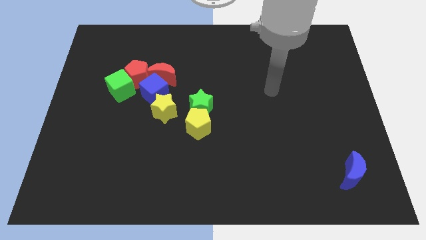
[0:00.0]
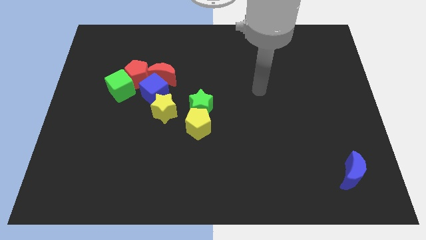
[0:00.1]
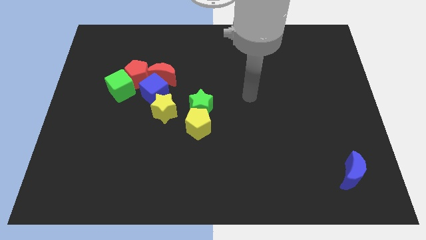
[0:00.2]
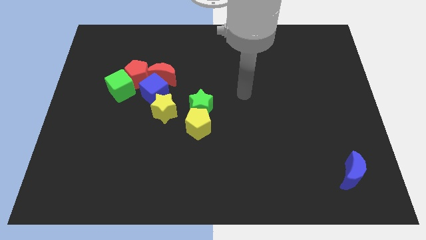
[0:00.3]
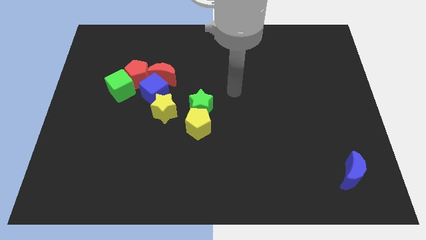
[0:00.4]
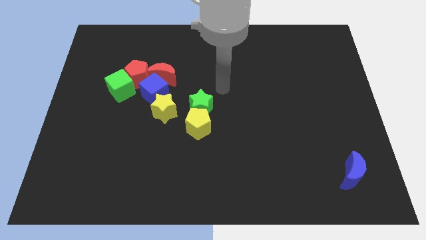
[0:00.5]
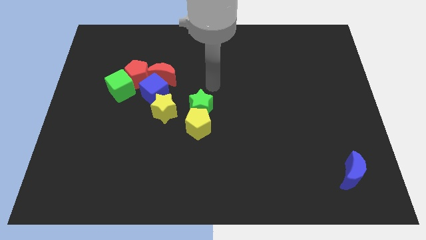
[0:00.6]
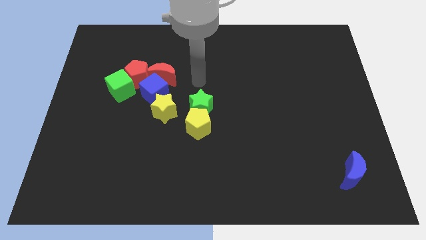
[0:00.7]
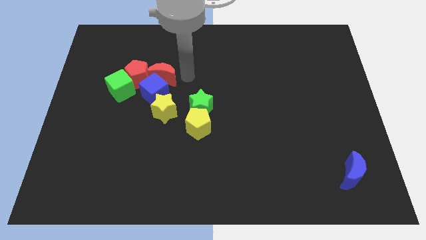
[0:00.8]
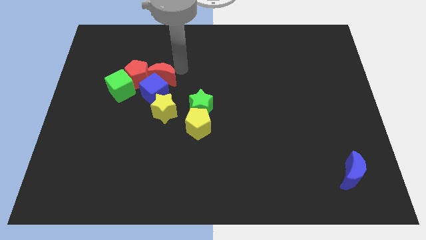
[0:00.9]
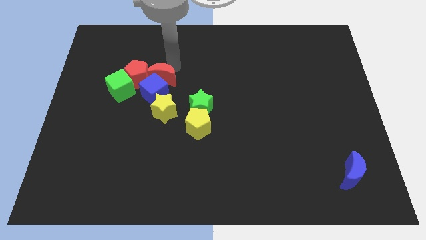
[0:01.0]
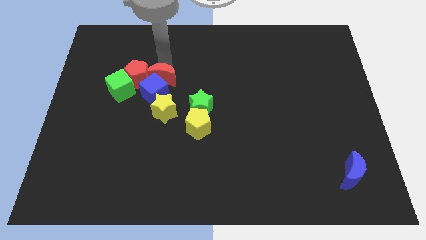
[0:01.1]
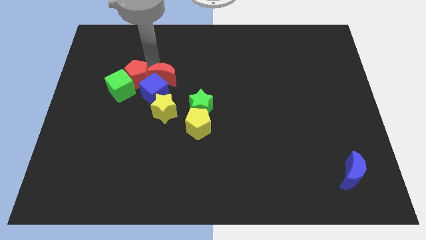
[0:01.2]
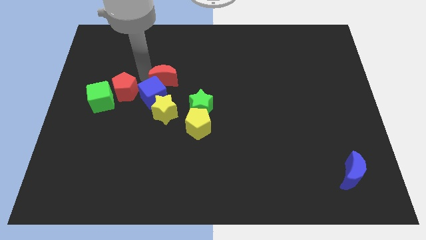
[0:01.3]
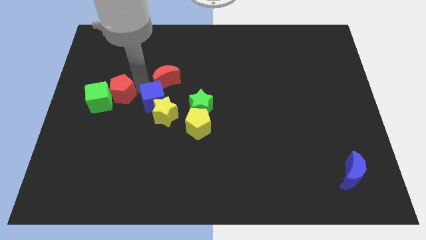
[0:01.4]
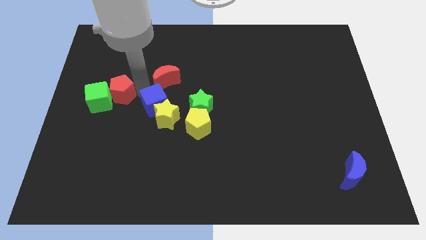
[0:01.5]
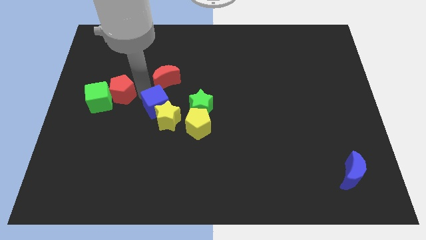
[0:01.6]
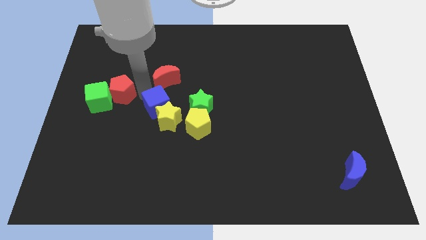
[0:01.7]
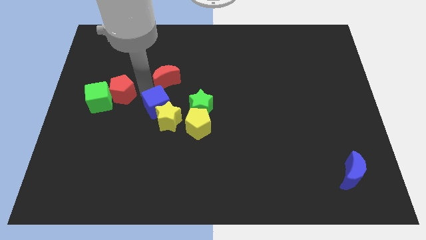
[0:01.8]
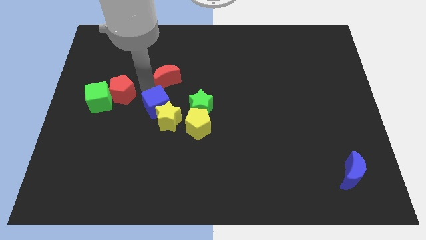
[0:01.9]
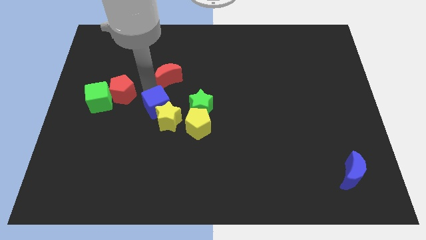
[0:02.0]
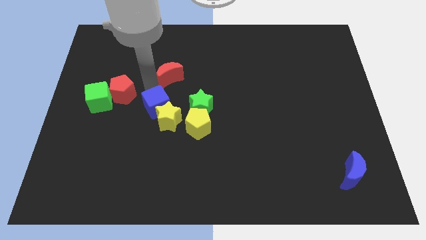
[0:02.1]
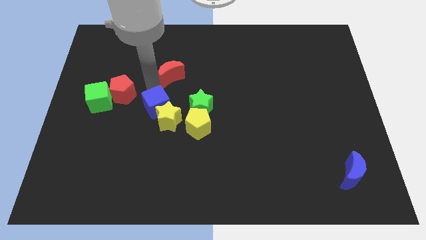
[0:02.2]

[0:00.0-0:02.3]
pull the red moon apart from the blue cube and red pentagon

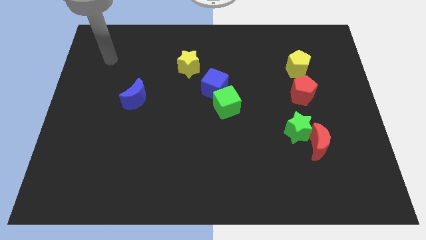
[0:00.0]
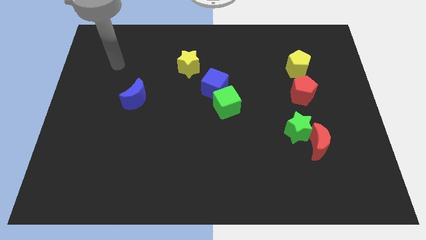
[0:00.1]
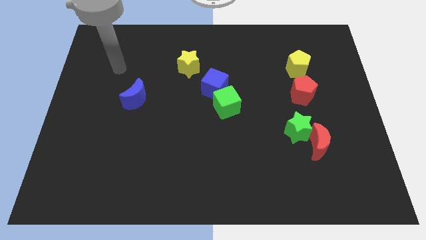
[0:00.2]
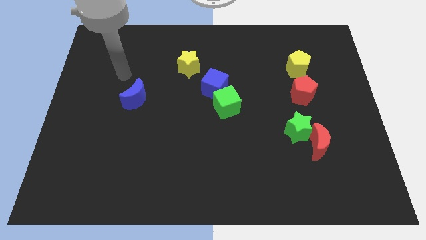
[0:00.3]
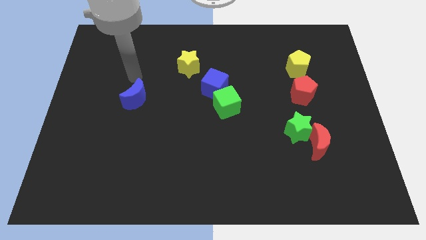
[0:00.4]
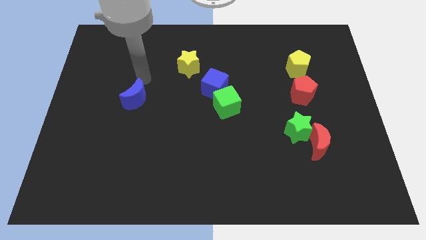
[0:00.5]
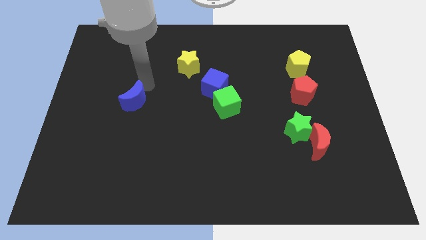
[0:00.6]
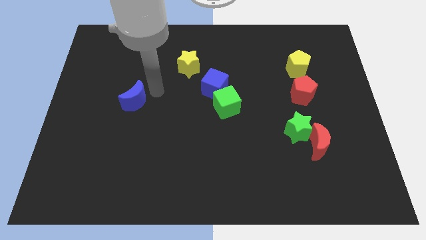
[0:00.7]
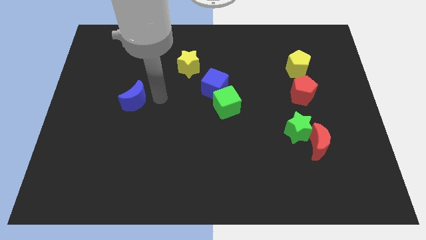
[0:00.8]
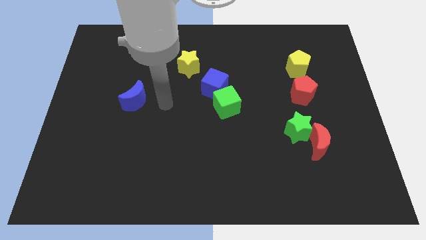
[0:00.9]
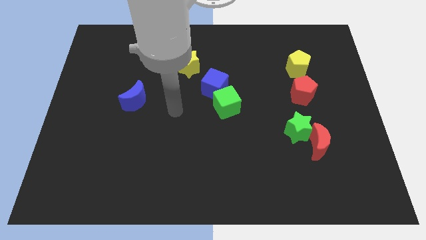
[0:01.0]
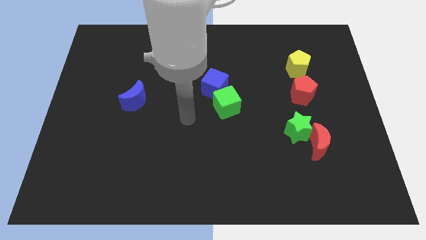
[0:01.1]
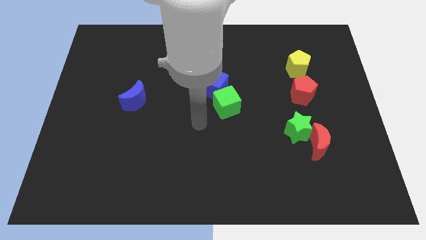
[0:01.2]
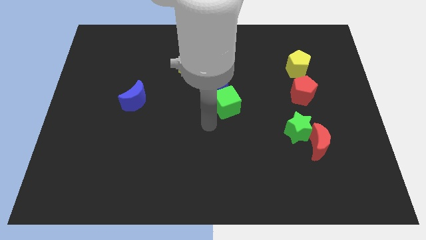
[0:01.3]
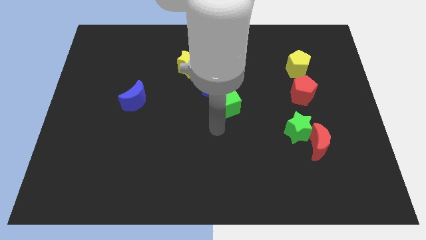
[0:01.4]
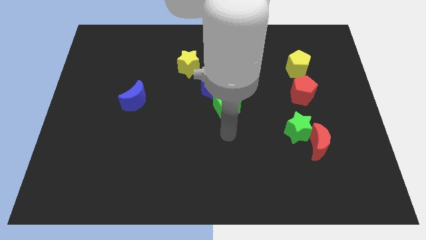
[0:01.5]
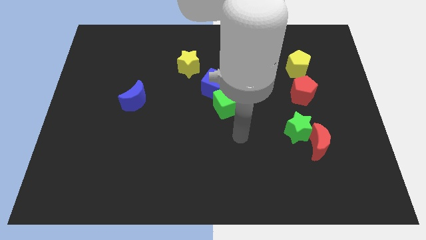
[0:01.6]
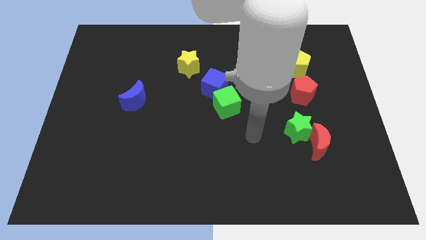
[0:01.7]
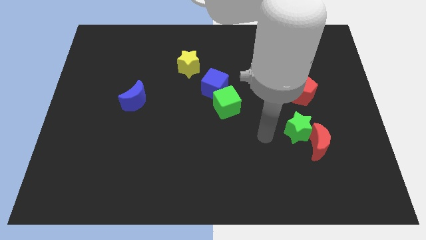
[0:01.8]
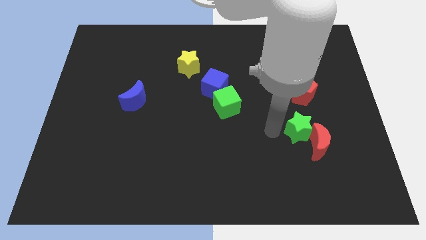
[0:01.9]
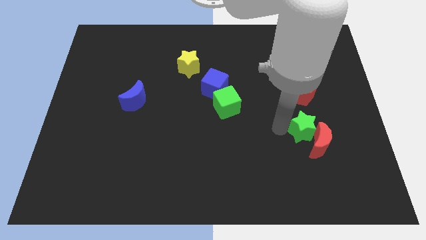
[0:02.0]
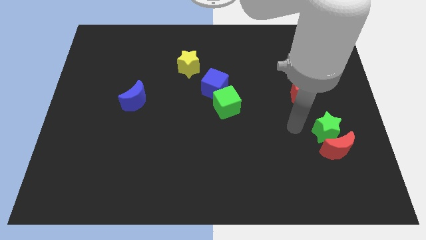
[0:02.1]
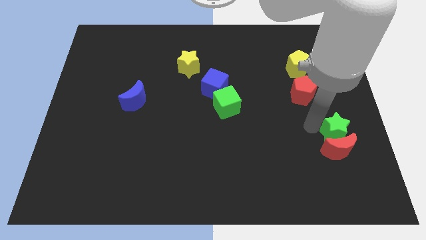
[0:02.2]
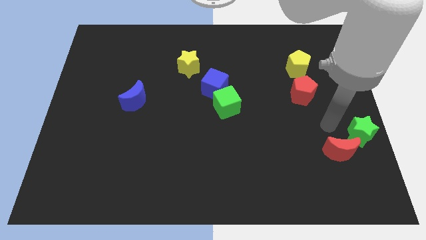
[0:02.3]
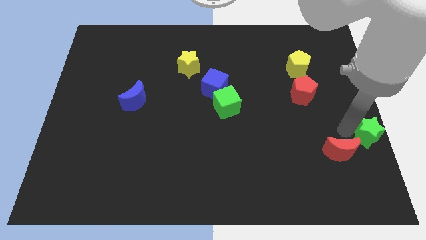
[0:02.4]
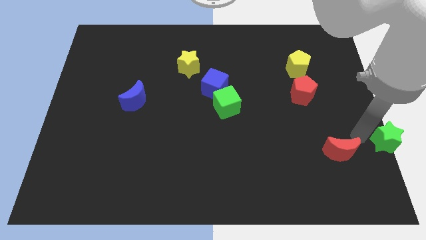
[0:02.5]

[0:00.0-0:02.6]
pull the red moon apart from the green star

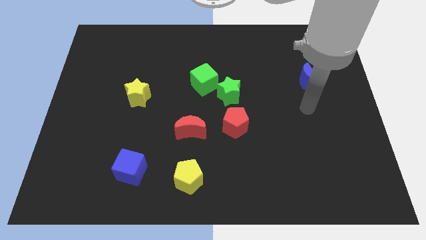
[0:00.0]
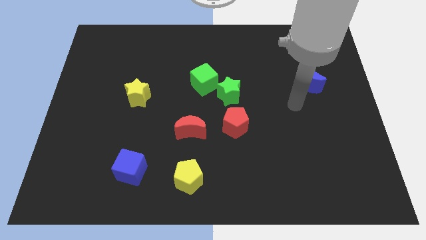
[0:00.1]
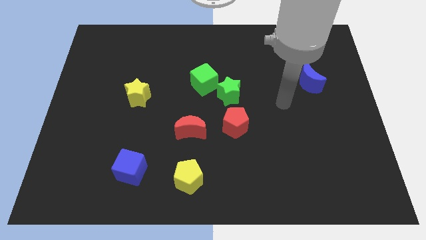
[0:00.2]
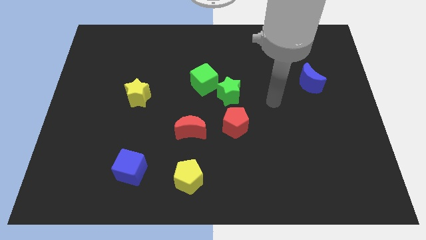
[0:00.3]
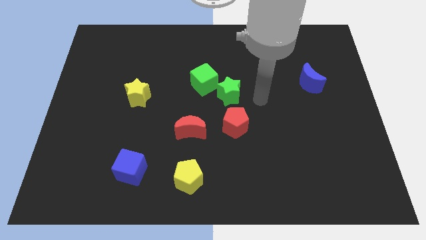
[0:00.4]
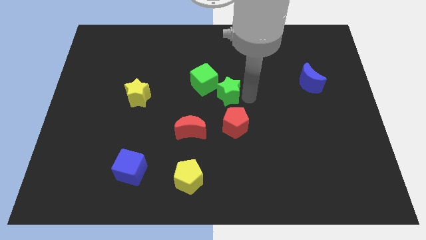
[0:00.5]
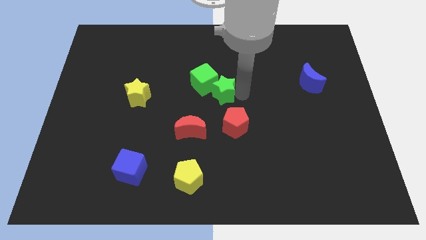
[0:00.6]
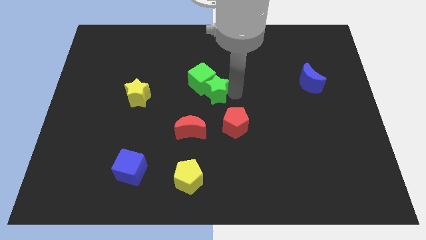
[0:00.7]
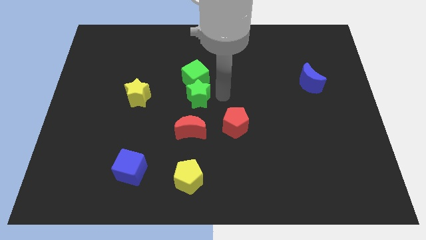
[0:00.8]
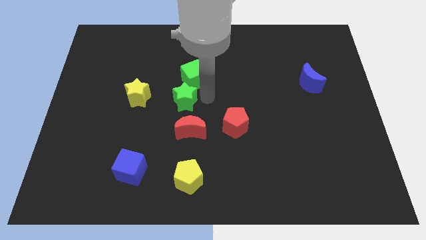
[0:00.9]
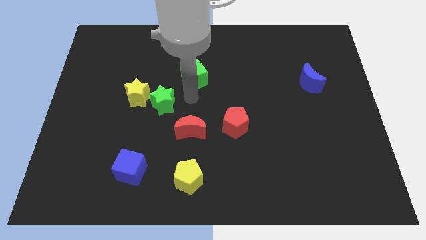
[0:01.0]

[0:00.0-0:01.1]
pull the green cube apart from the green star

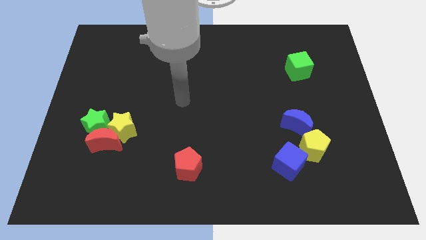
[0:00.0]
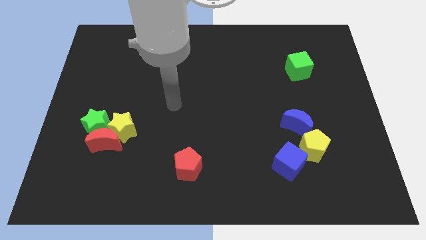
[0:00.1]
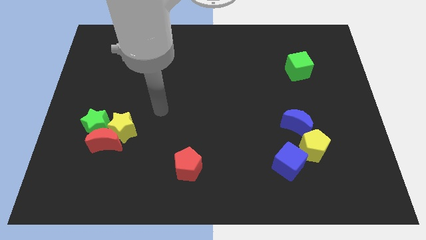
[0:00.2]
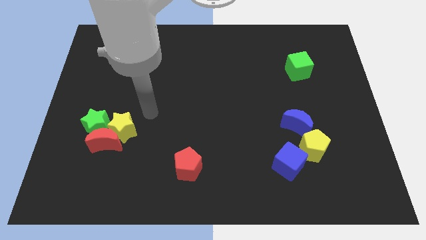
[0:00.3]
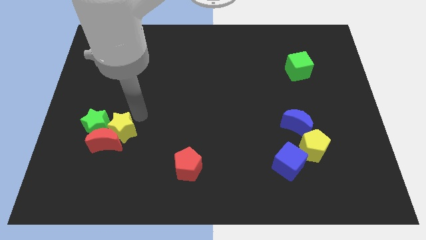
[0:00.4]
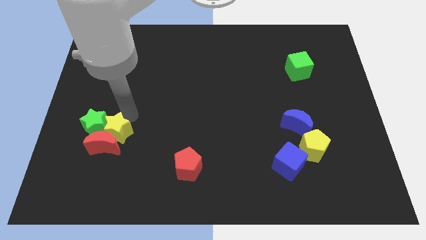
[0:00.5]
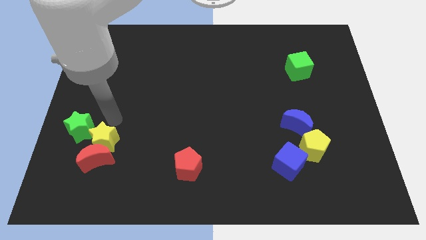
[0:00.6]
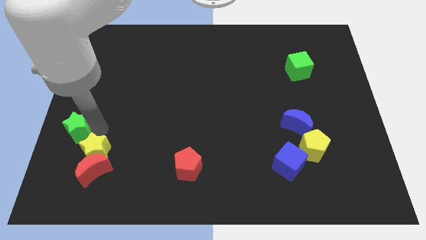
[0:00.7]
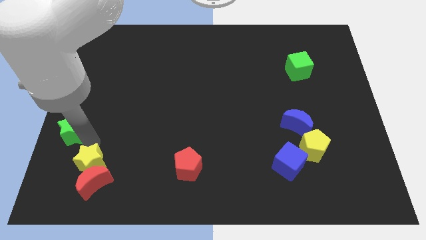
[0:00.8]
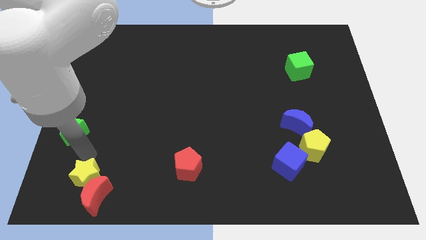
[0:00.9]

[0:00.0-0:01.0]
separate the red moon from the green star and yellow star

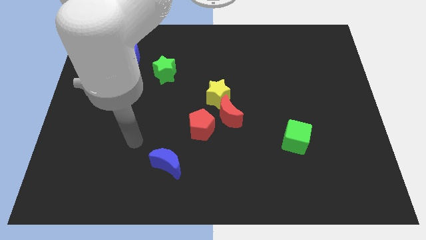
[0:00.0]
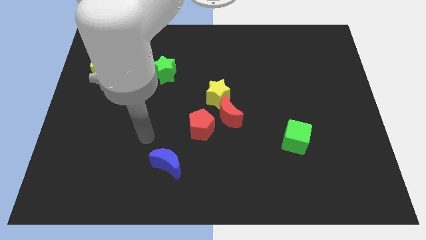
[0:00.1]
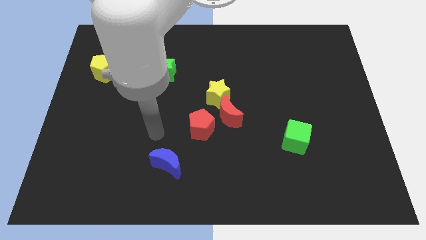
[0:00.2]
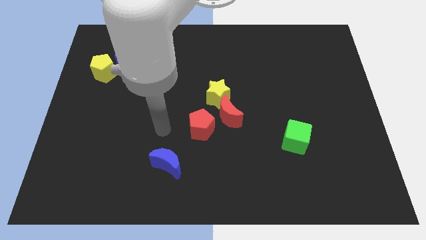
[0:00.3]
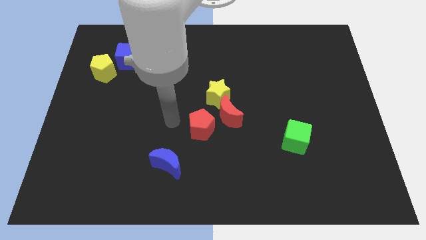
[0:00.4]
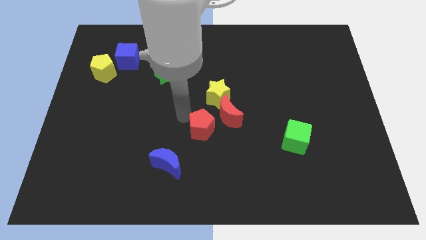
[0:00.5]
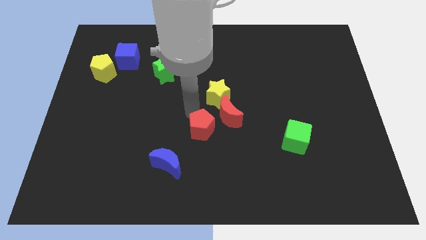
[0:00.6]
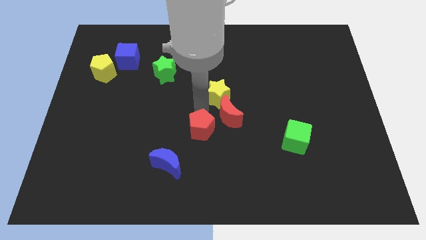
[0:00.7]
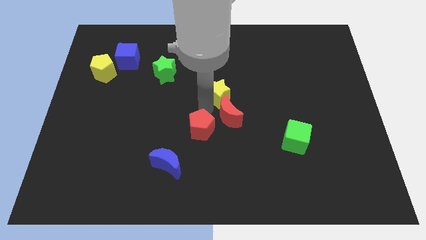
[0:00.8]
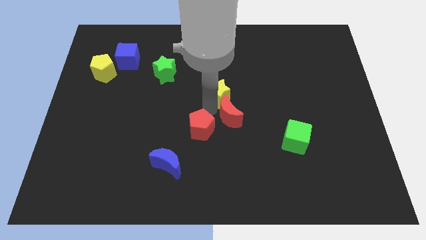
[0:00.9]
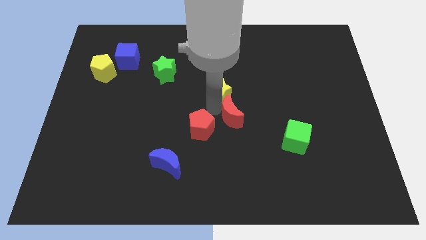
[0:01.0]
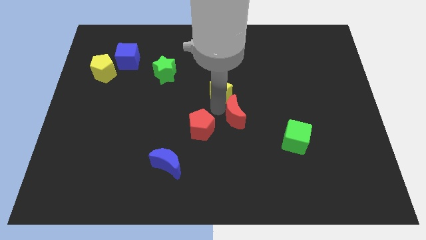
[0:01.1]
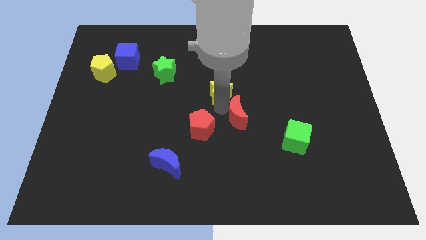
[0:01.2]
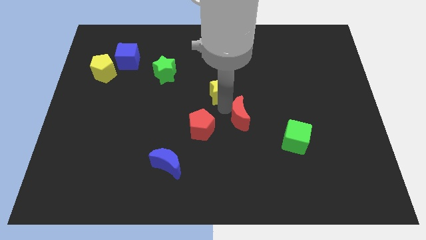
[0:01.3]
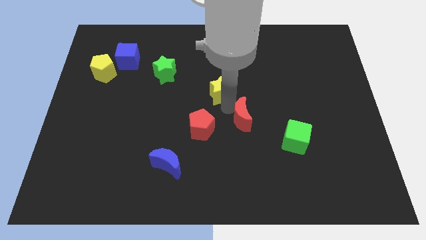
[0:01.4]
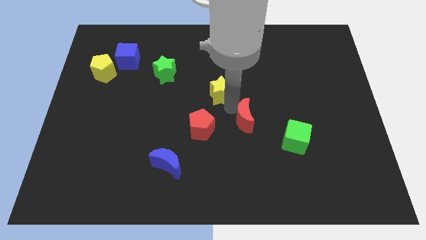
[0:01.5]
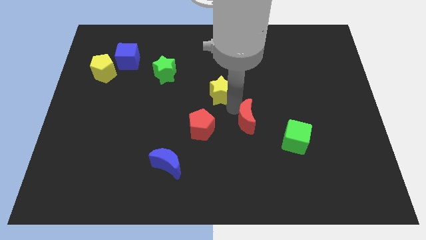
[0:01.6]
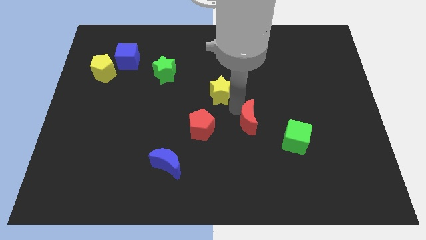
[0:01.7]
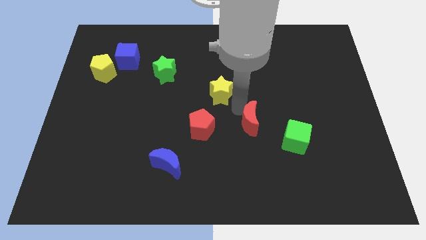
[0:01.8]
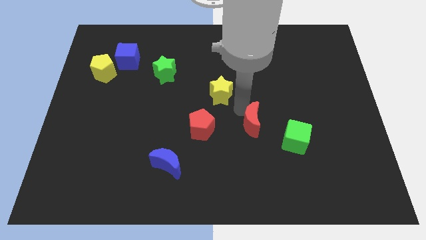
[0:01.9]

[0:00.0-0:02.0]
pull the red moon apart from the yellow star and red pentagon

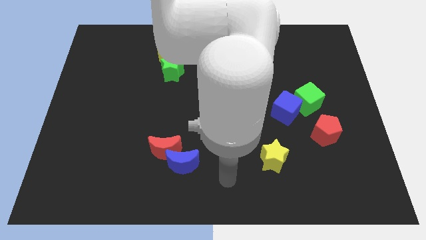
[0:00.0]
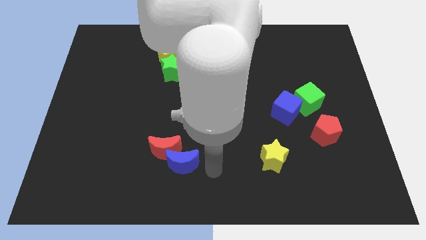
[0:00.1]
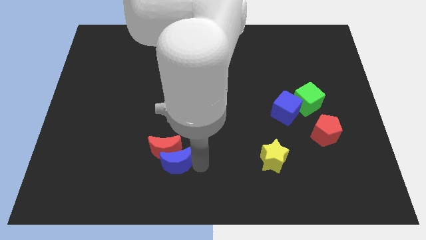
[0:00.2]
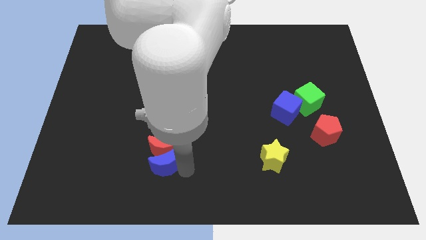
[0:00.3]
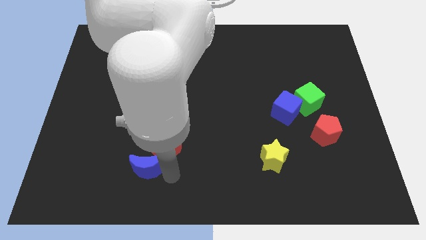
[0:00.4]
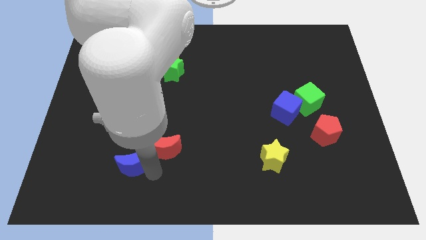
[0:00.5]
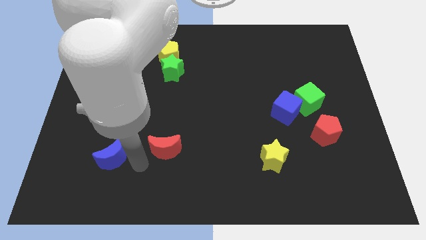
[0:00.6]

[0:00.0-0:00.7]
pull the red moon apart from the blue moon
